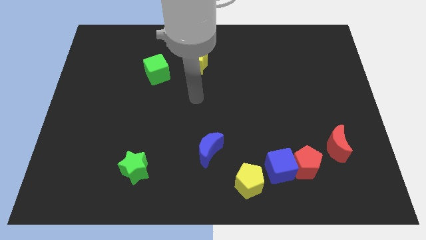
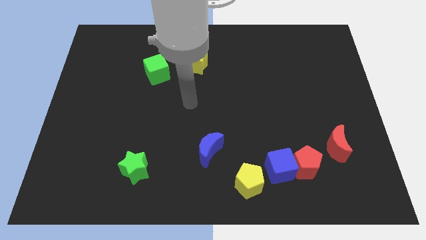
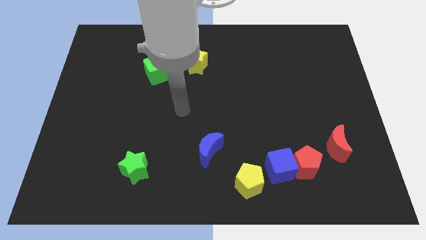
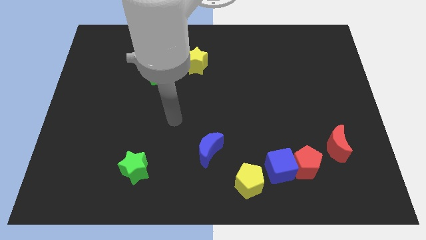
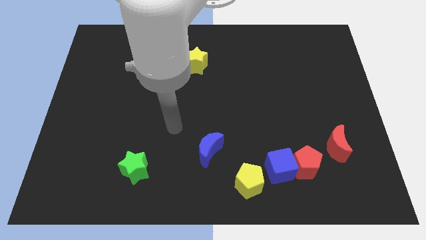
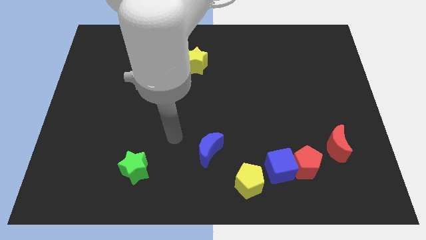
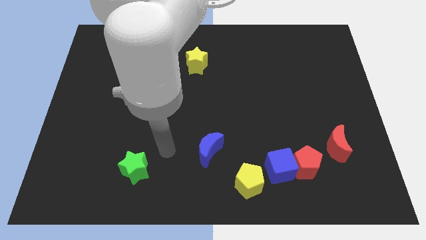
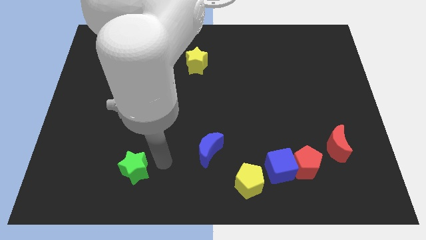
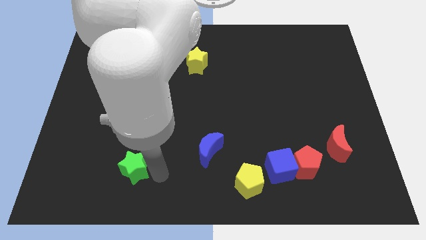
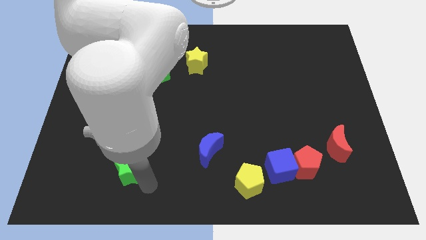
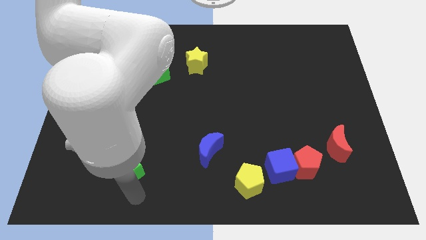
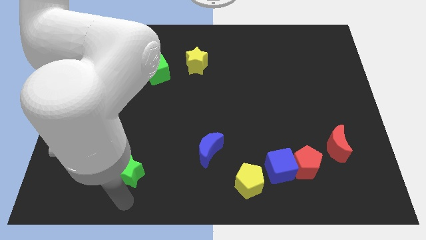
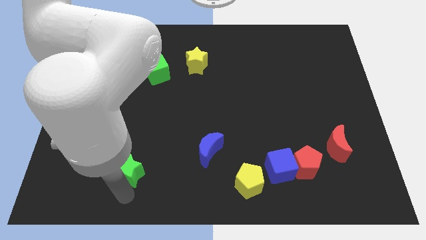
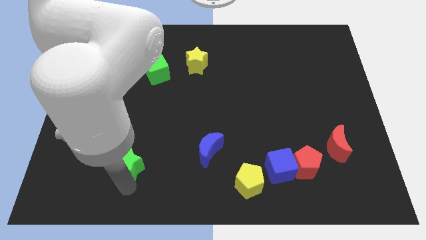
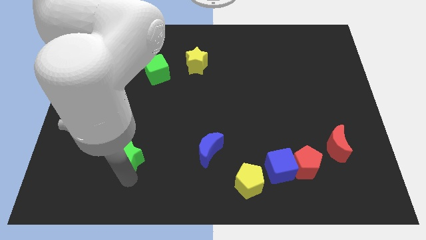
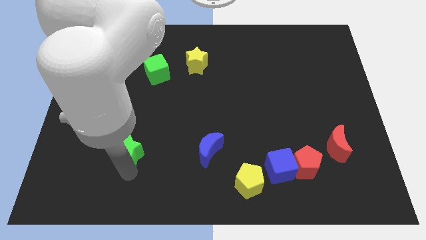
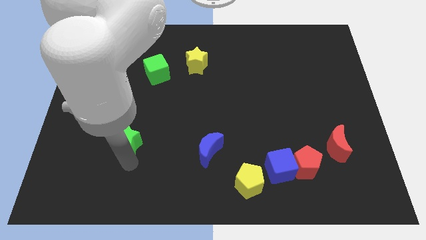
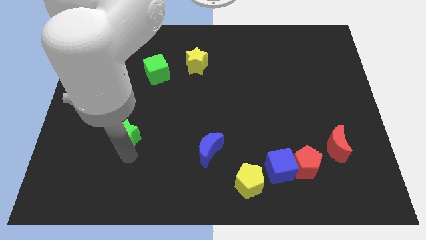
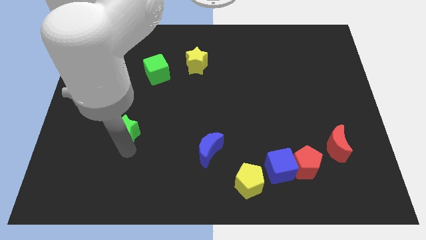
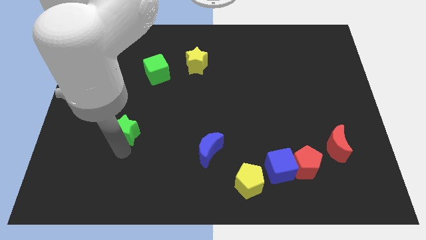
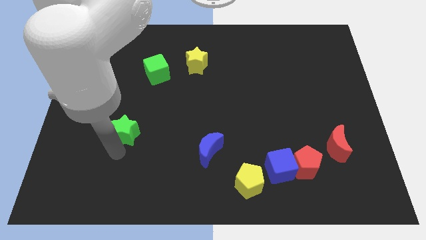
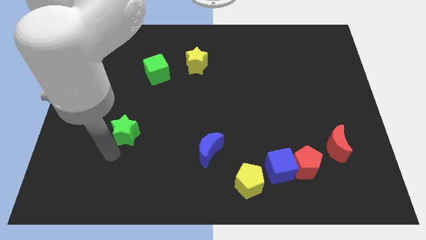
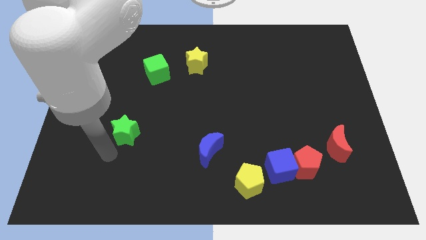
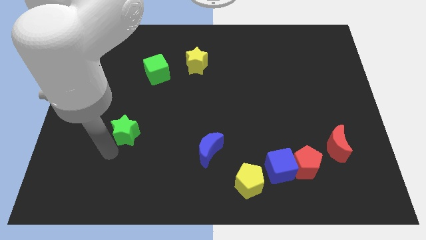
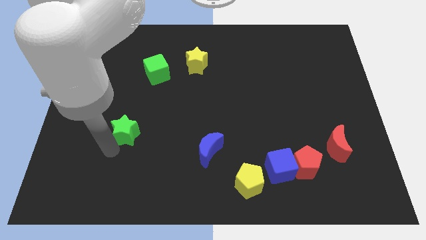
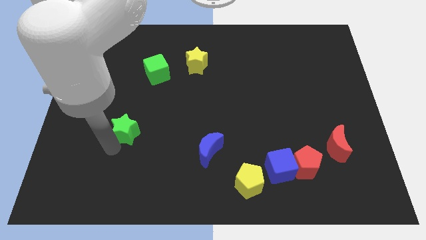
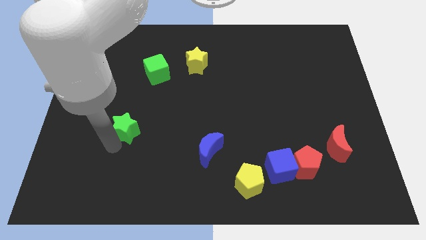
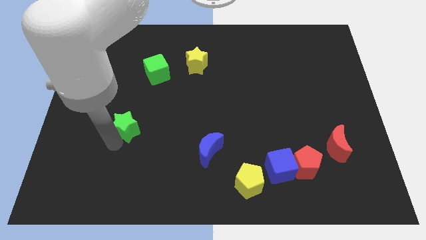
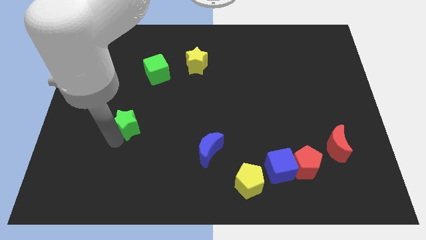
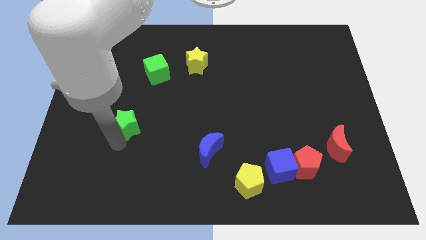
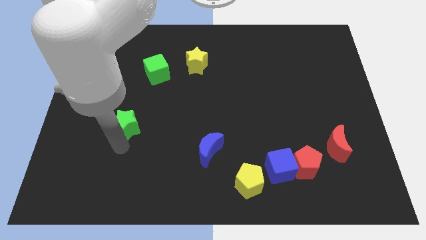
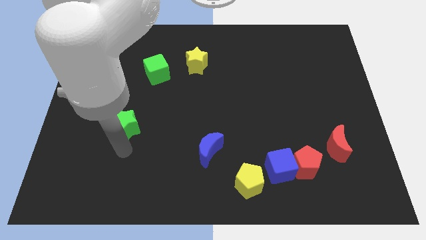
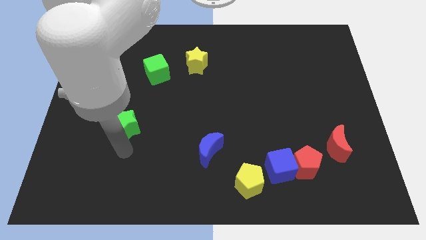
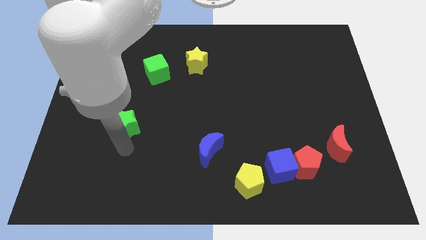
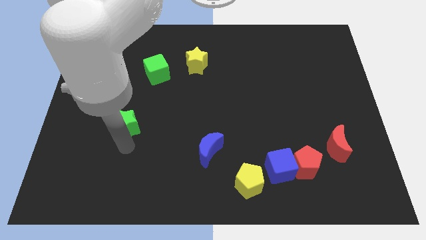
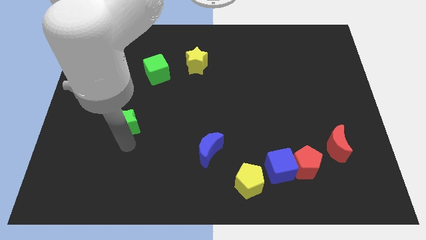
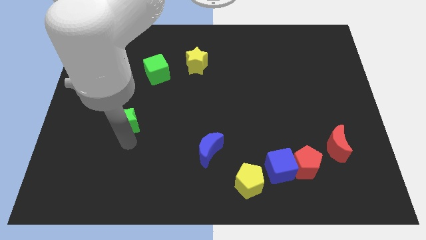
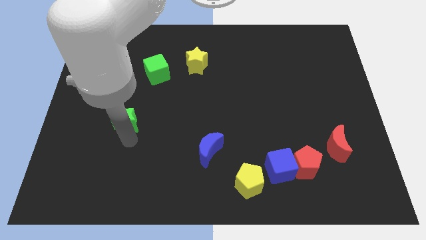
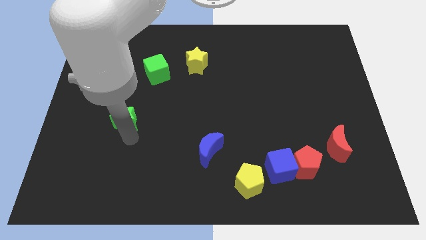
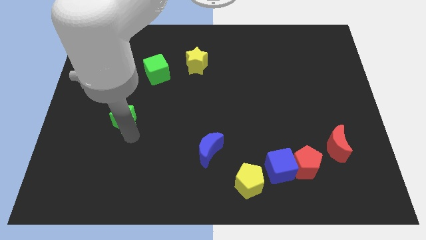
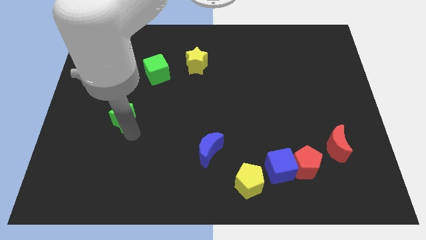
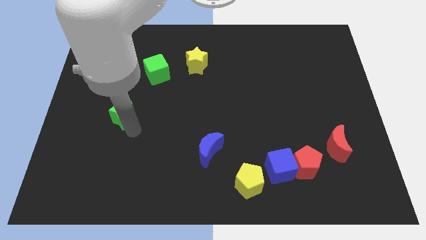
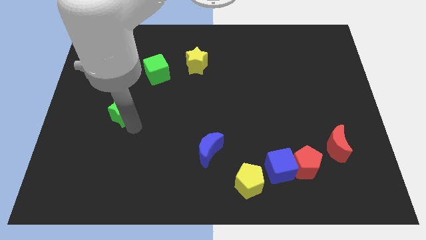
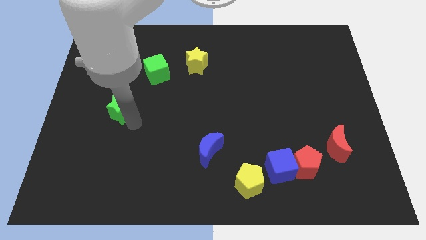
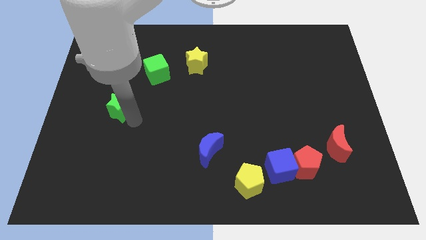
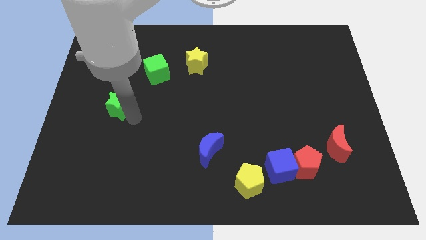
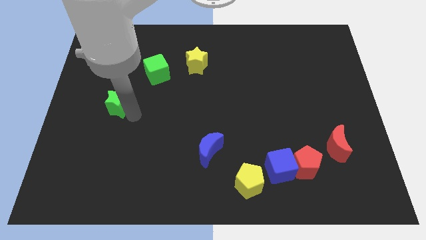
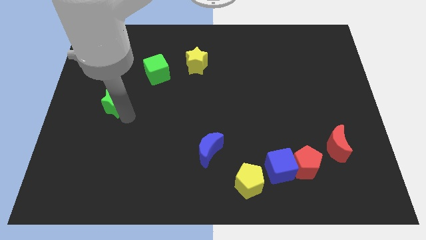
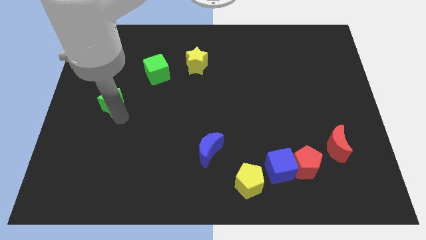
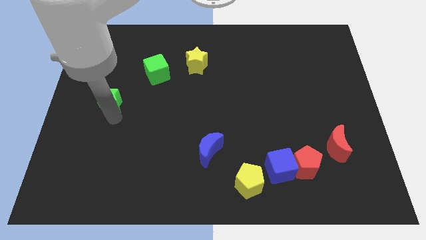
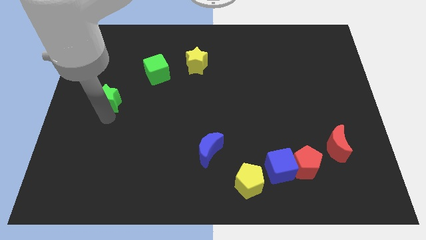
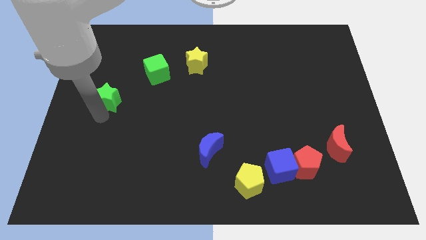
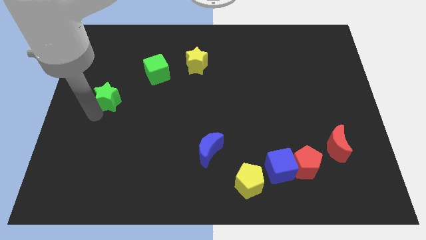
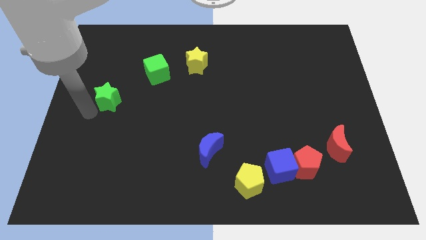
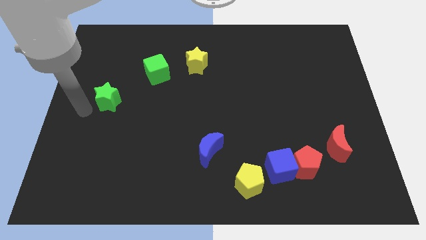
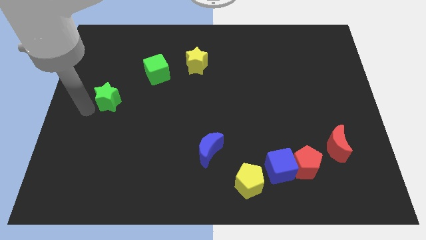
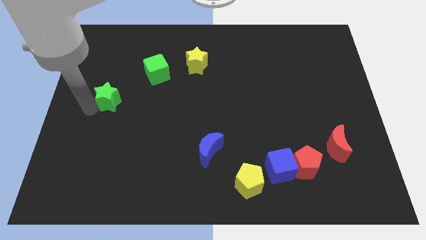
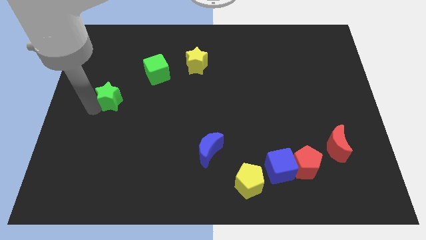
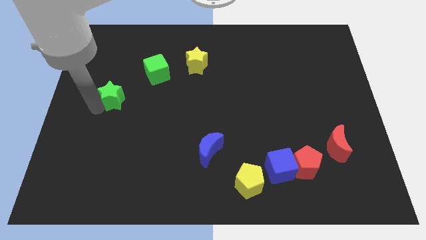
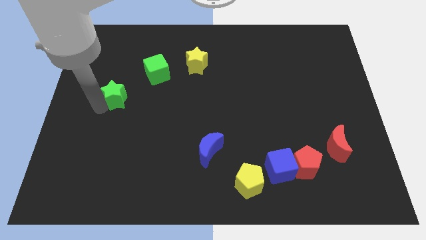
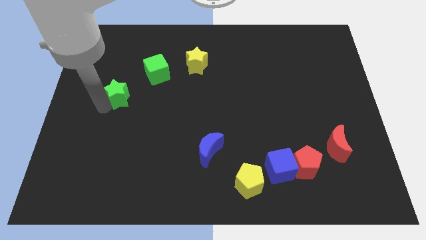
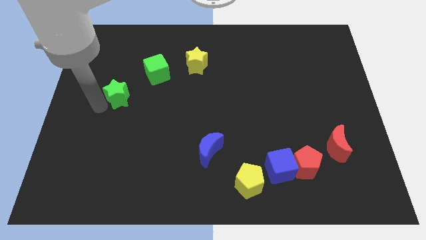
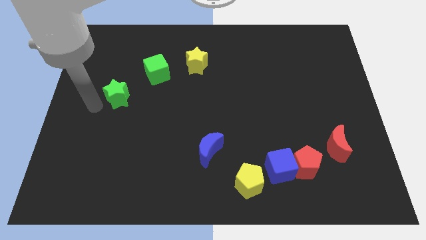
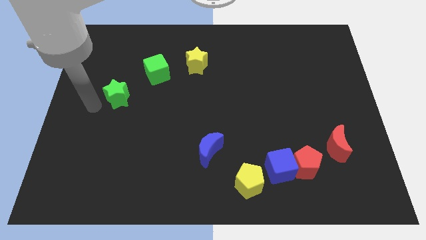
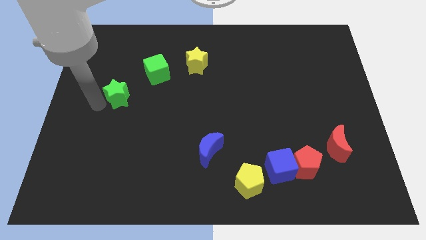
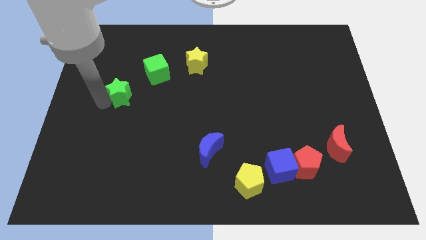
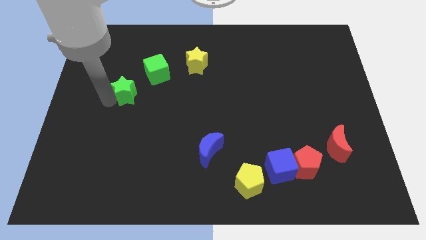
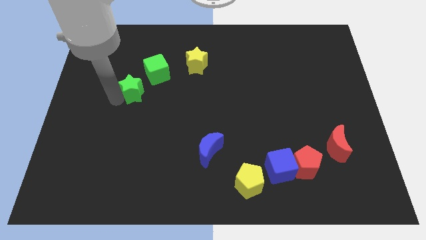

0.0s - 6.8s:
move the green star upwards

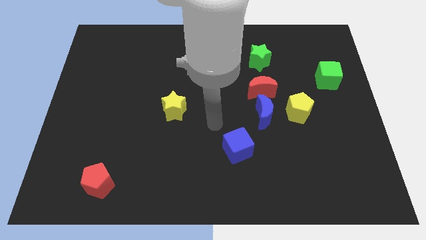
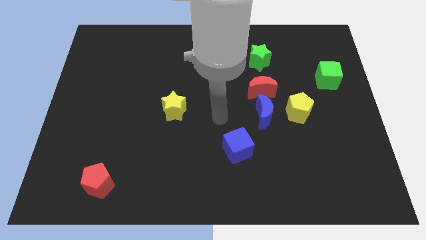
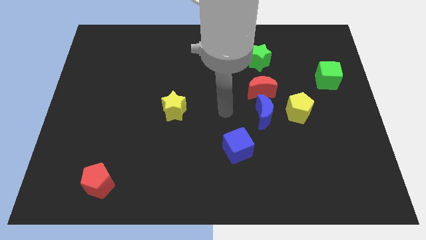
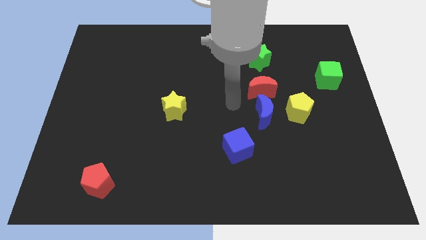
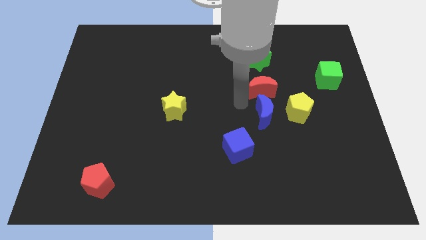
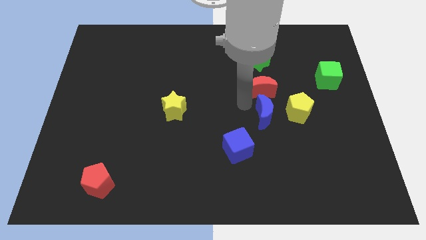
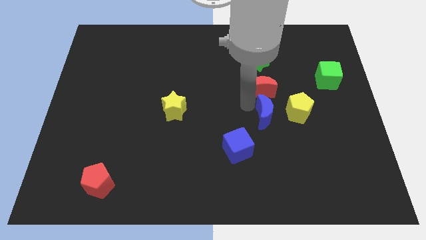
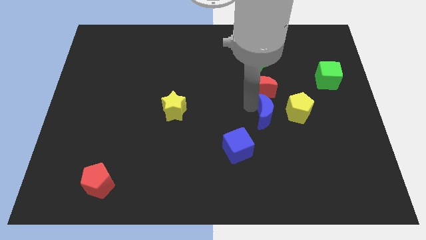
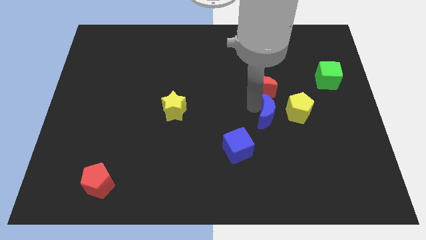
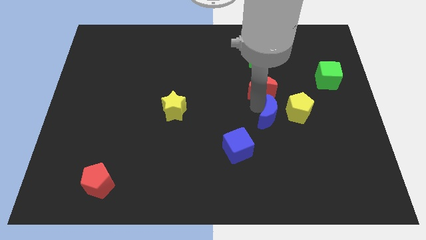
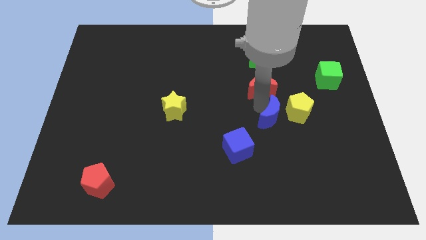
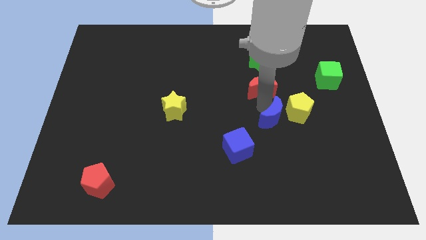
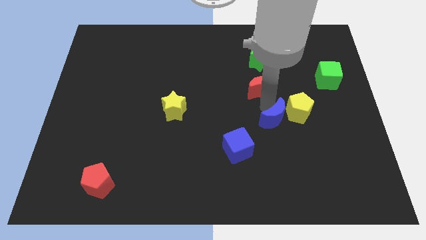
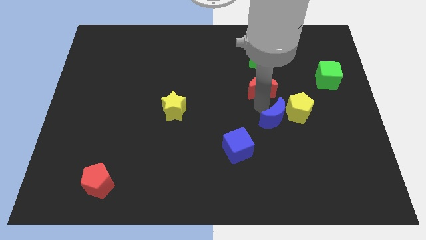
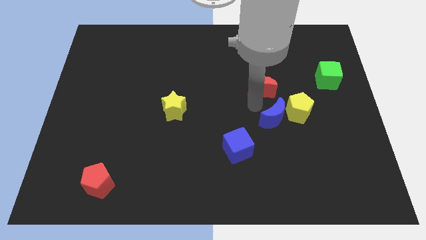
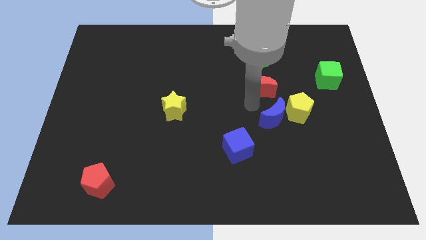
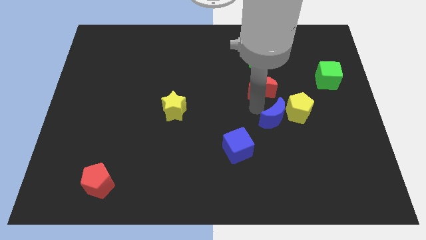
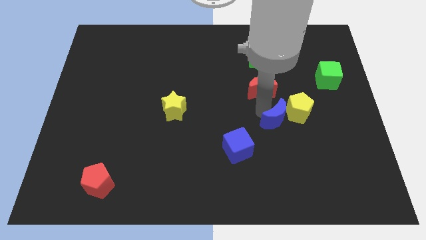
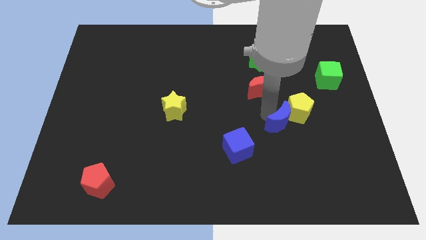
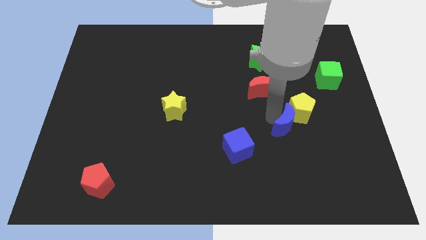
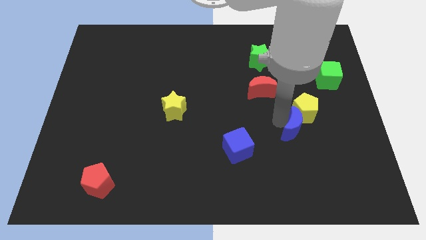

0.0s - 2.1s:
push the blue moon downwards and to the right diagonally somewhat
